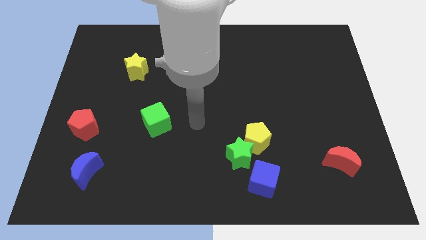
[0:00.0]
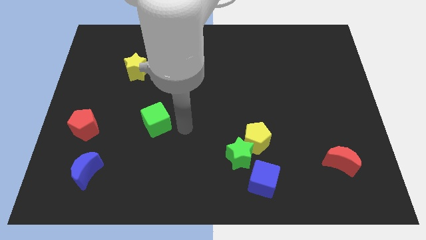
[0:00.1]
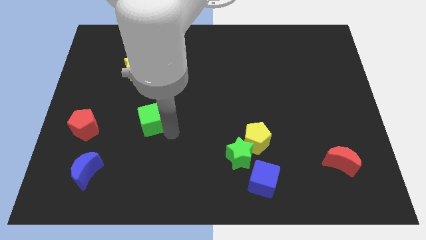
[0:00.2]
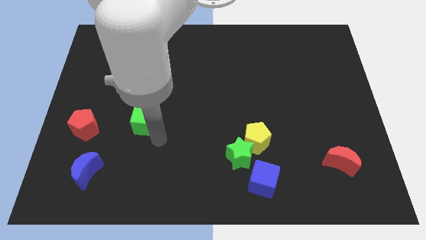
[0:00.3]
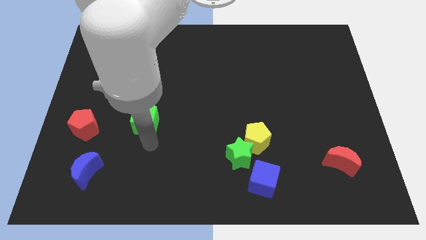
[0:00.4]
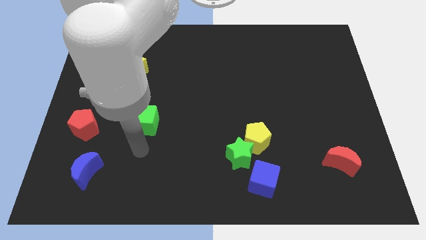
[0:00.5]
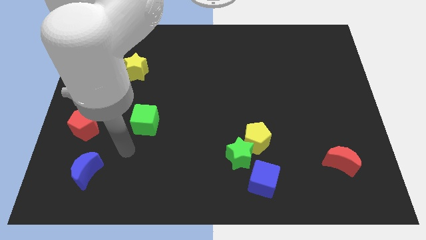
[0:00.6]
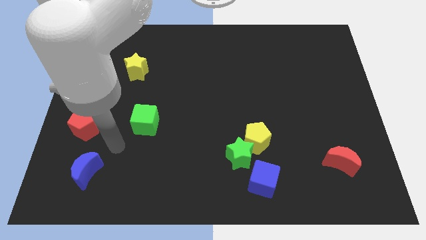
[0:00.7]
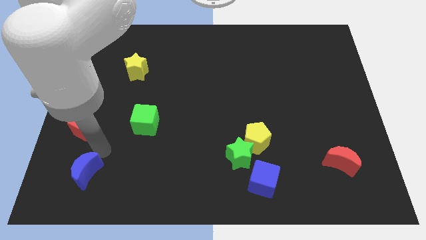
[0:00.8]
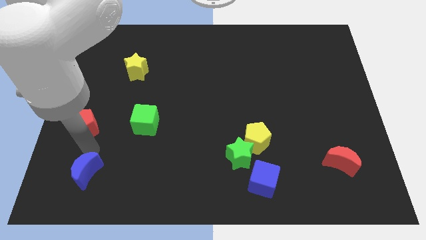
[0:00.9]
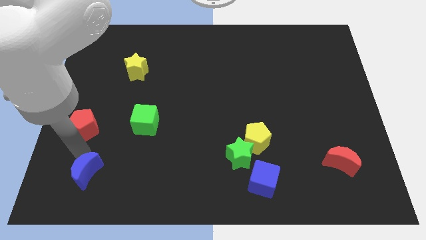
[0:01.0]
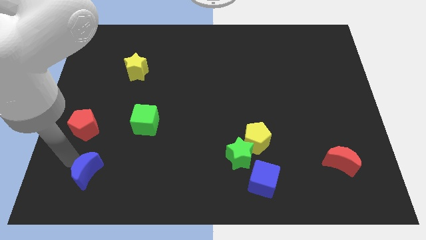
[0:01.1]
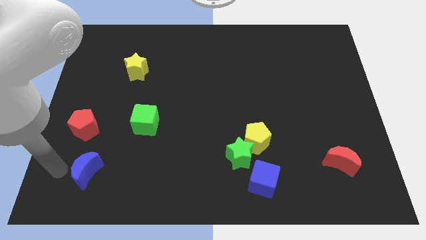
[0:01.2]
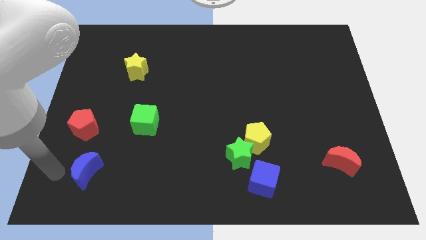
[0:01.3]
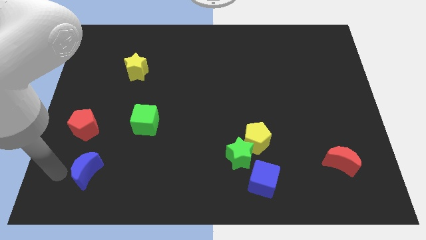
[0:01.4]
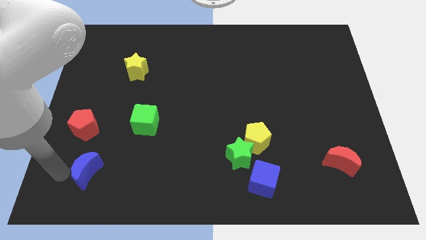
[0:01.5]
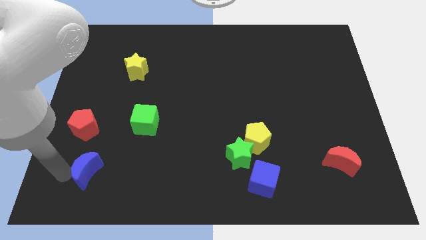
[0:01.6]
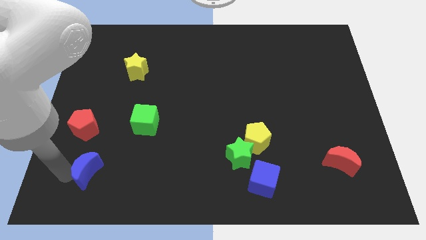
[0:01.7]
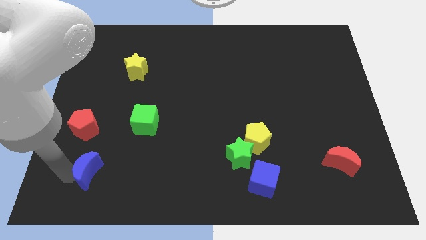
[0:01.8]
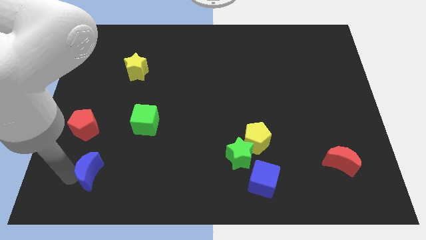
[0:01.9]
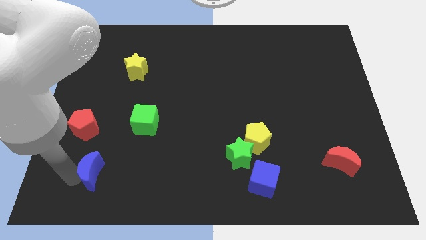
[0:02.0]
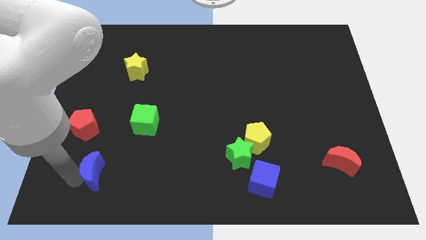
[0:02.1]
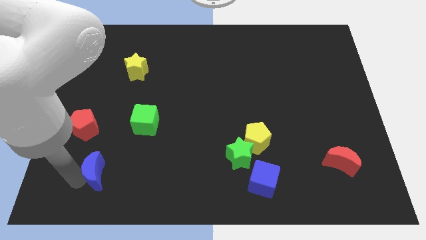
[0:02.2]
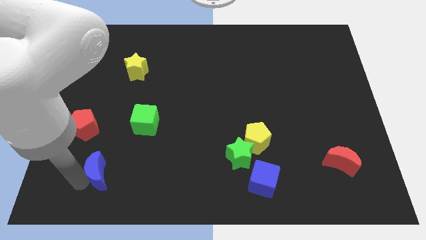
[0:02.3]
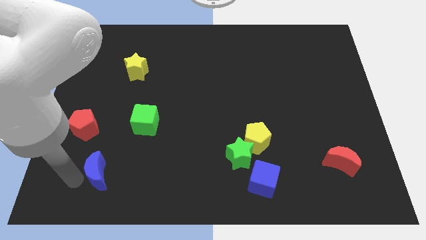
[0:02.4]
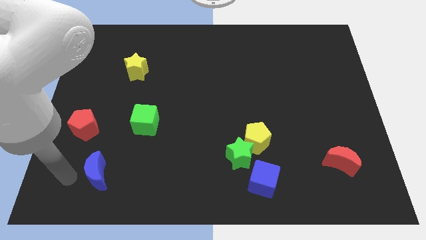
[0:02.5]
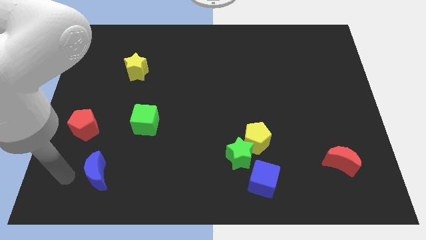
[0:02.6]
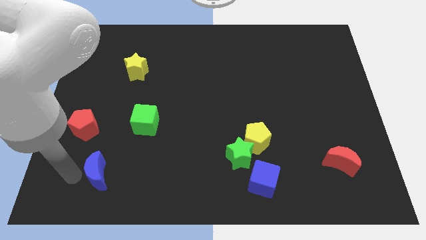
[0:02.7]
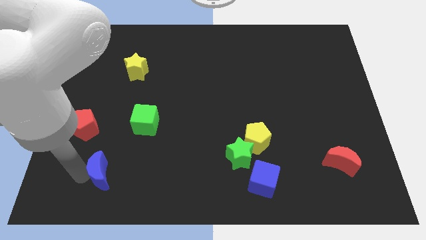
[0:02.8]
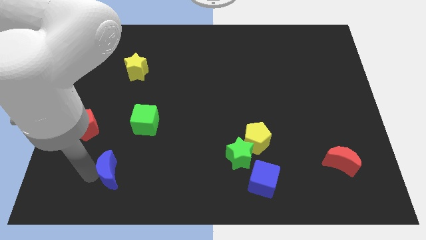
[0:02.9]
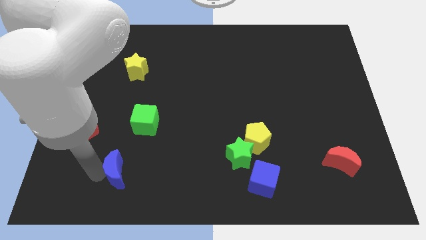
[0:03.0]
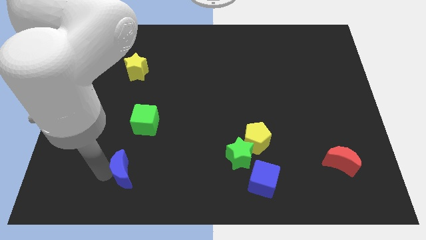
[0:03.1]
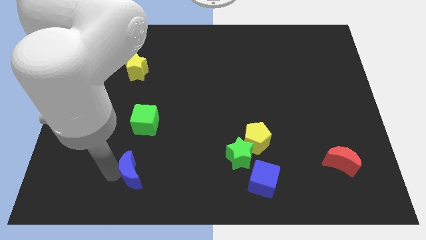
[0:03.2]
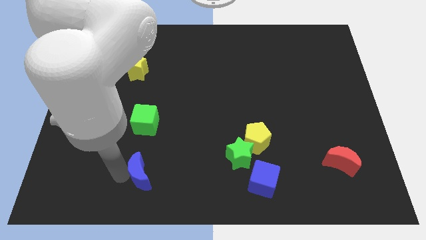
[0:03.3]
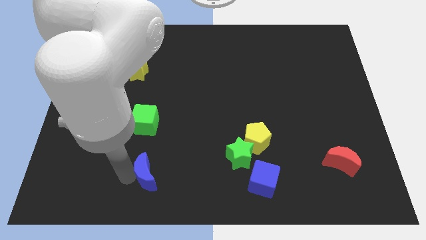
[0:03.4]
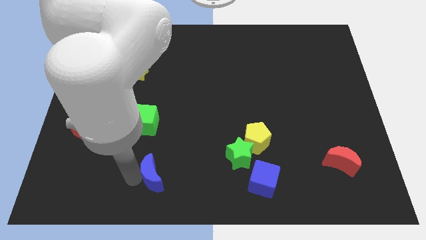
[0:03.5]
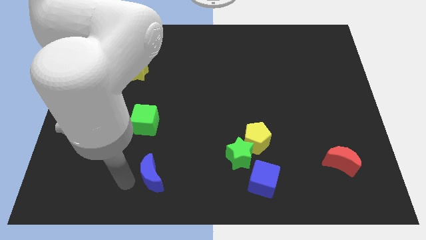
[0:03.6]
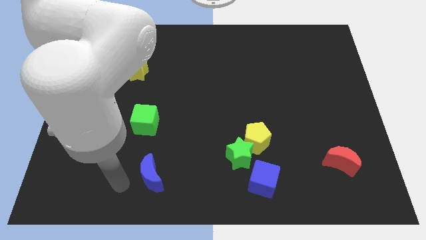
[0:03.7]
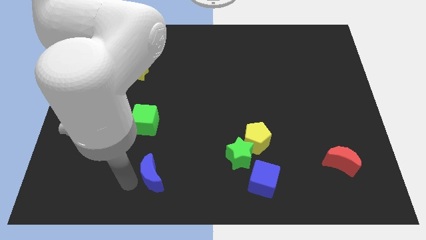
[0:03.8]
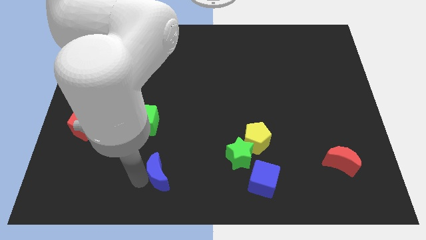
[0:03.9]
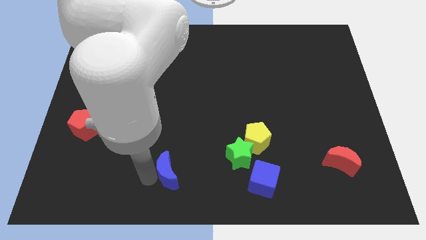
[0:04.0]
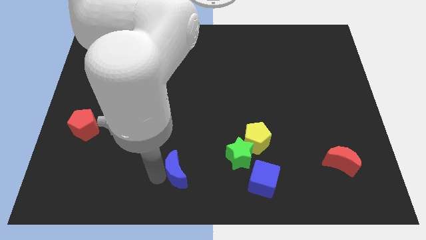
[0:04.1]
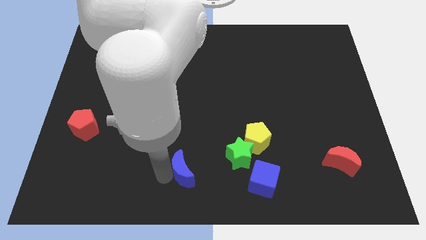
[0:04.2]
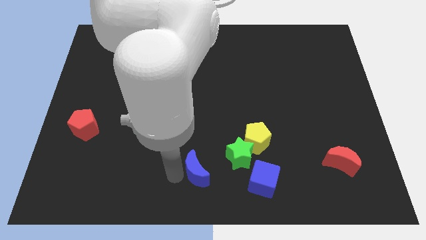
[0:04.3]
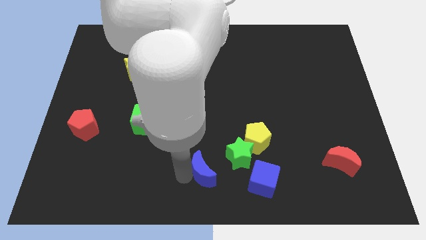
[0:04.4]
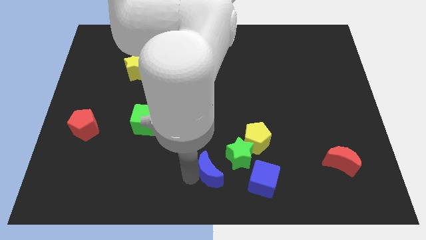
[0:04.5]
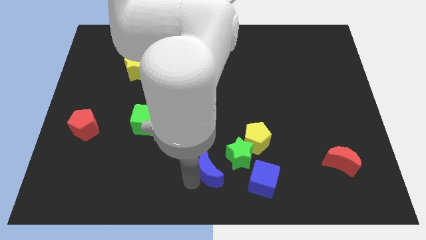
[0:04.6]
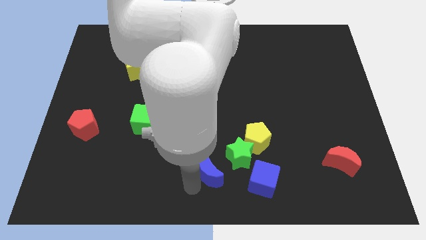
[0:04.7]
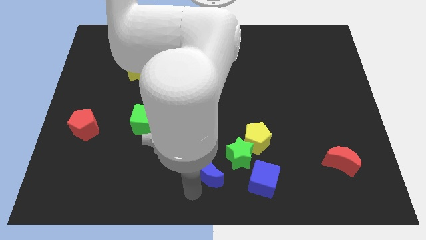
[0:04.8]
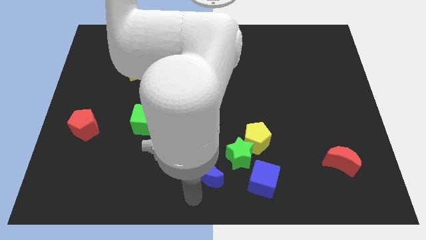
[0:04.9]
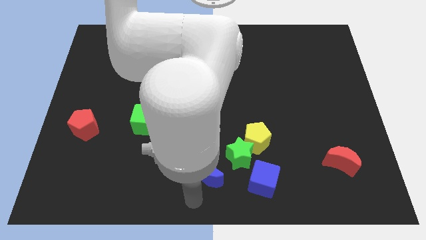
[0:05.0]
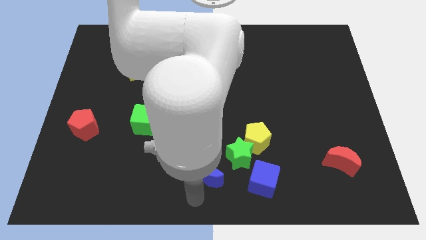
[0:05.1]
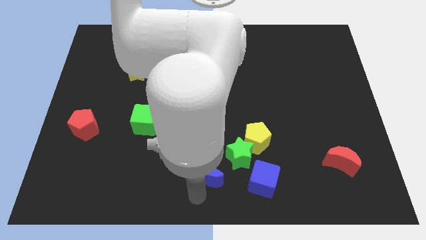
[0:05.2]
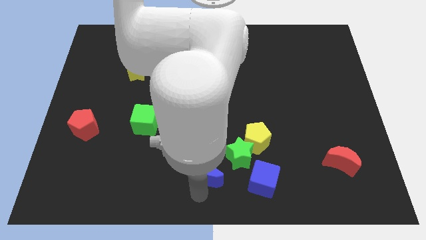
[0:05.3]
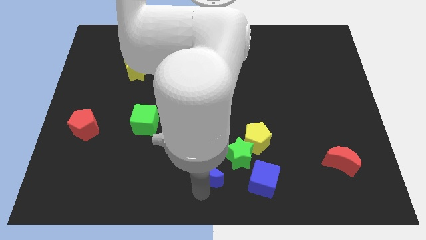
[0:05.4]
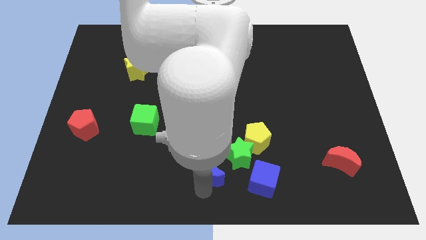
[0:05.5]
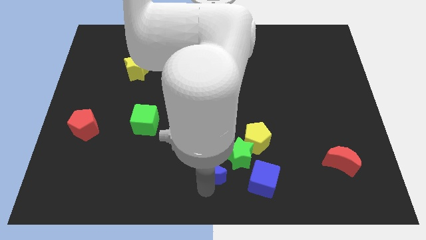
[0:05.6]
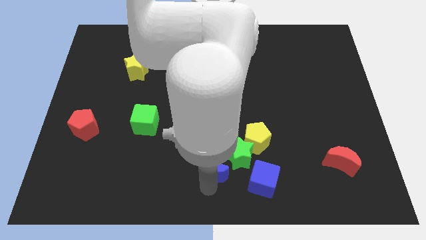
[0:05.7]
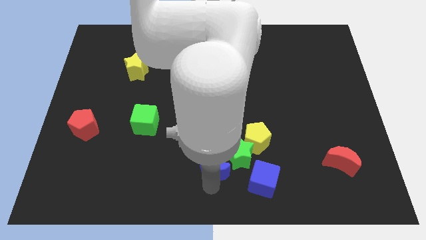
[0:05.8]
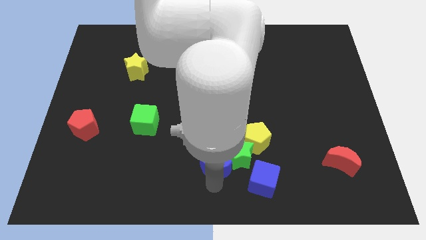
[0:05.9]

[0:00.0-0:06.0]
move the blue moon close to the green star
